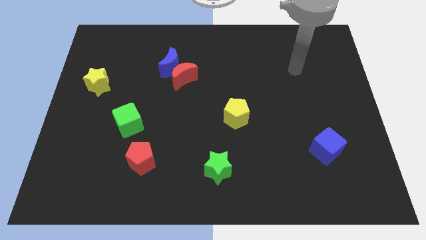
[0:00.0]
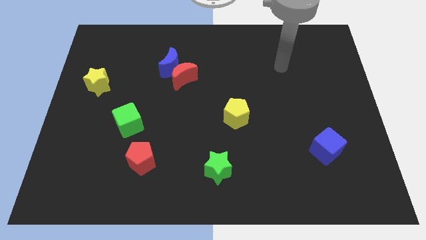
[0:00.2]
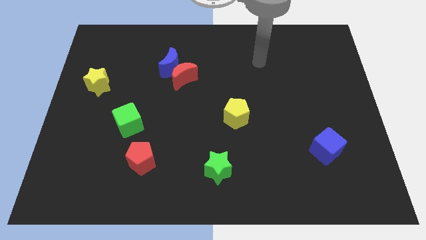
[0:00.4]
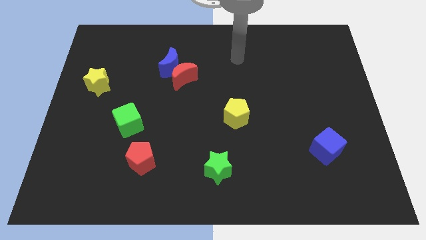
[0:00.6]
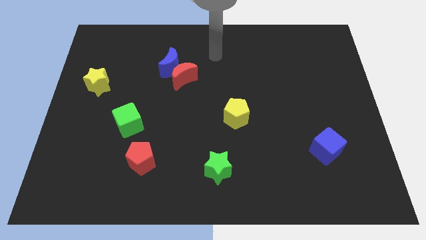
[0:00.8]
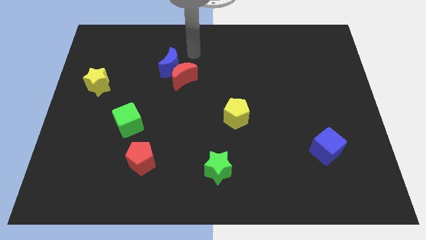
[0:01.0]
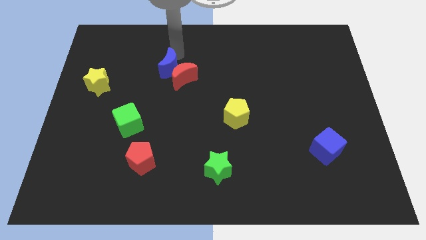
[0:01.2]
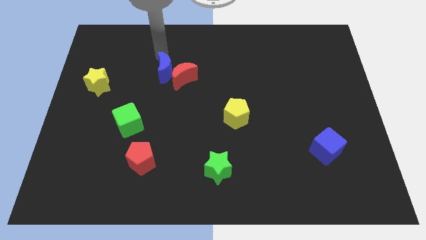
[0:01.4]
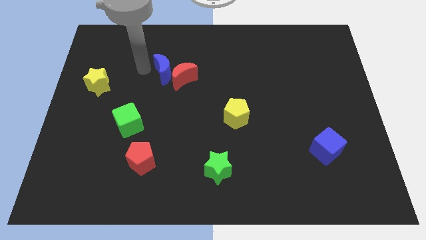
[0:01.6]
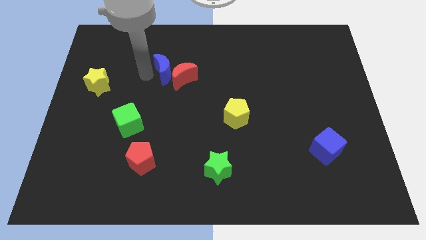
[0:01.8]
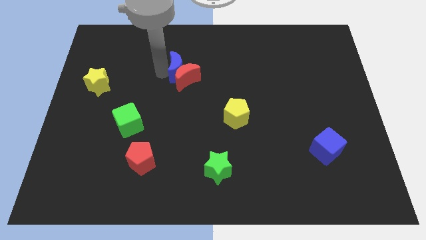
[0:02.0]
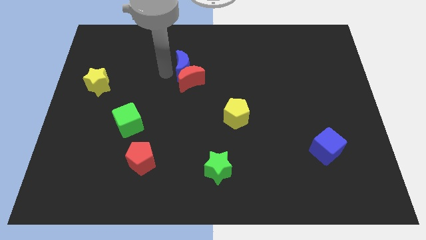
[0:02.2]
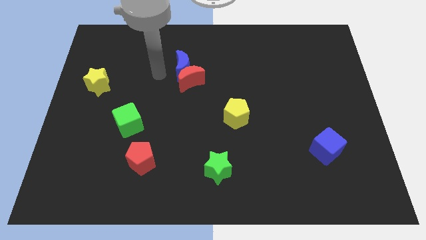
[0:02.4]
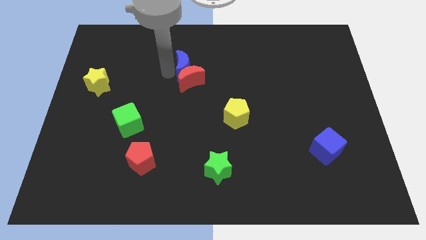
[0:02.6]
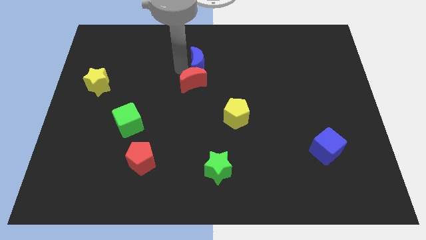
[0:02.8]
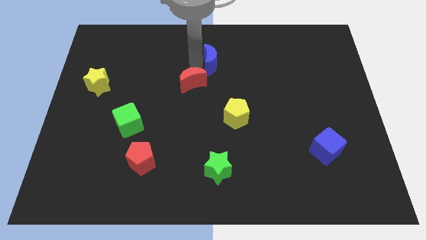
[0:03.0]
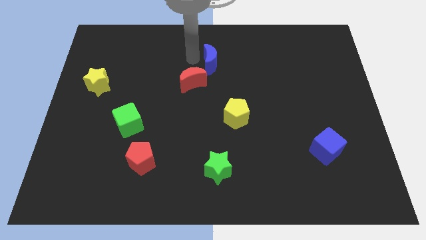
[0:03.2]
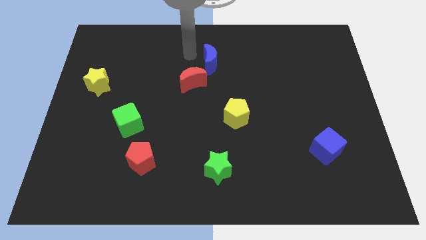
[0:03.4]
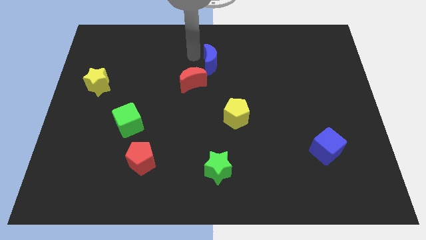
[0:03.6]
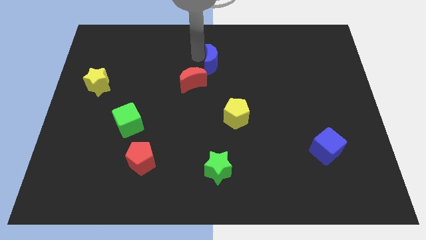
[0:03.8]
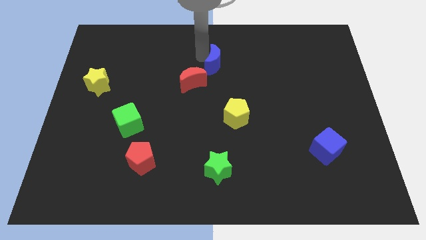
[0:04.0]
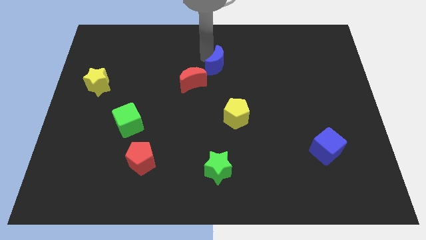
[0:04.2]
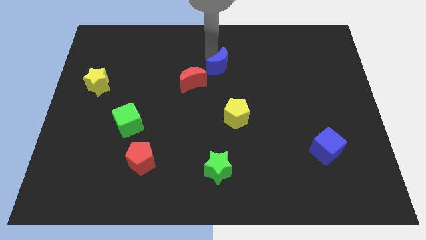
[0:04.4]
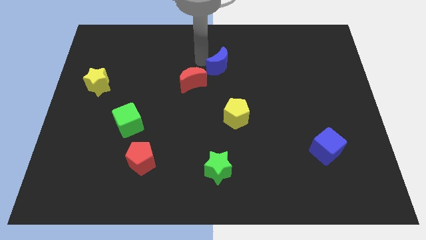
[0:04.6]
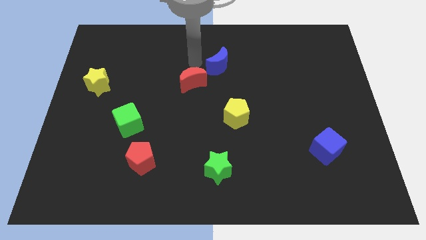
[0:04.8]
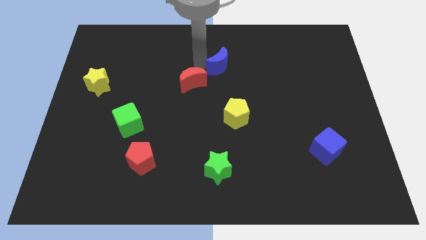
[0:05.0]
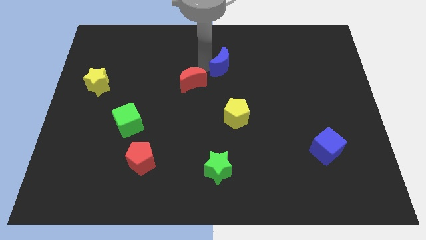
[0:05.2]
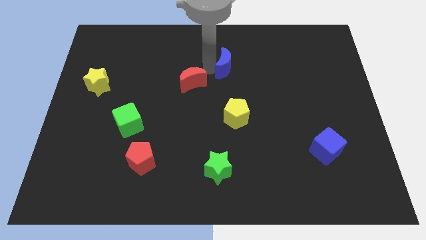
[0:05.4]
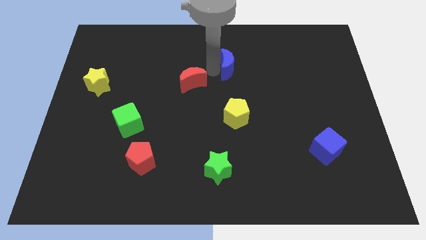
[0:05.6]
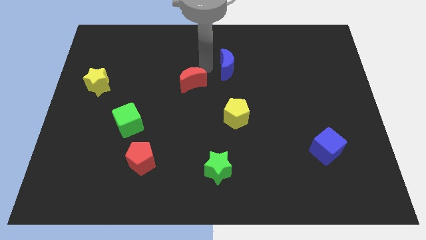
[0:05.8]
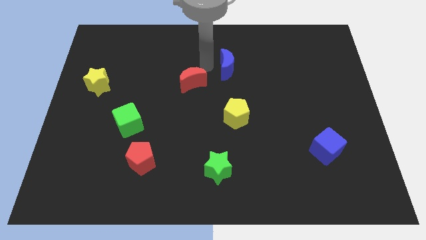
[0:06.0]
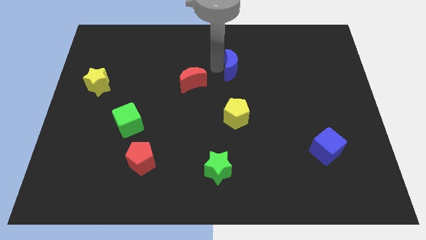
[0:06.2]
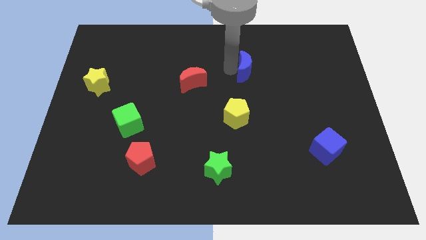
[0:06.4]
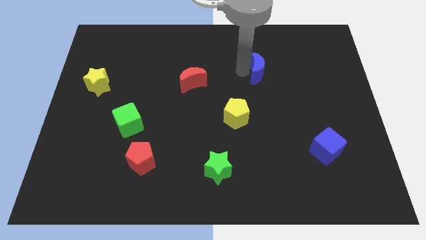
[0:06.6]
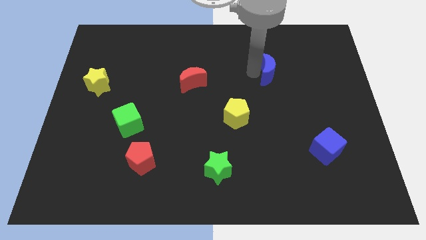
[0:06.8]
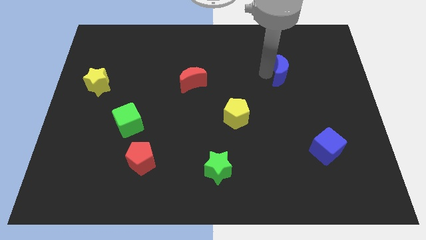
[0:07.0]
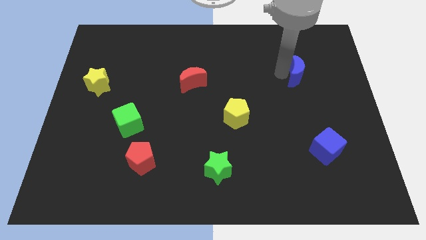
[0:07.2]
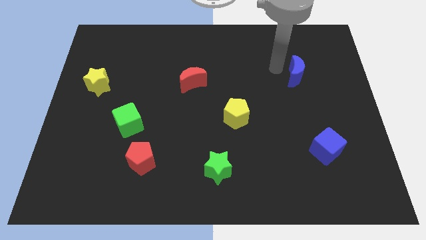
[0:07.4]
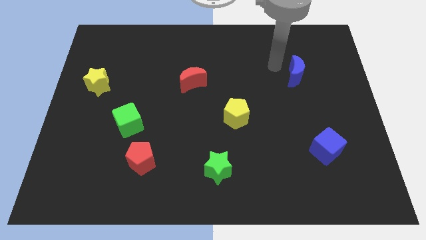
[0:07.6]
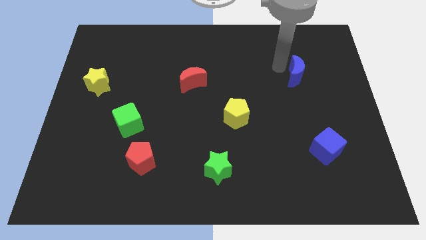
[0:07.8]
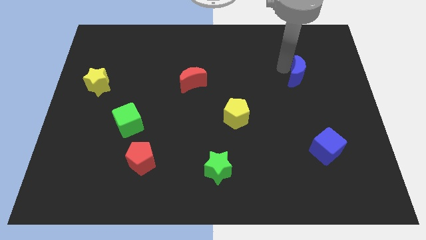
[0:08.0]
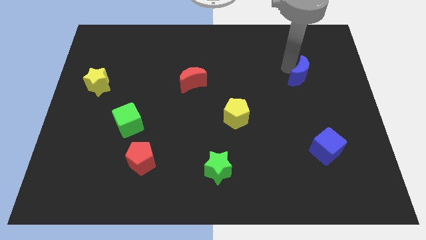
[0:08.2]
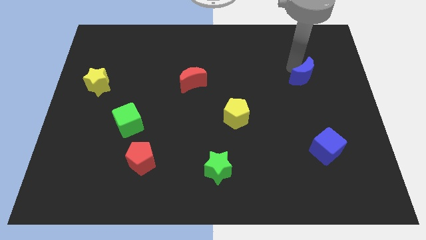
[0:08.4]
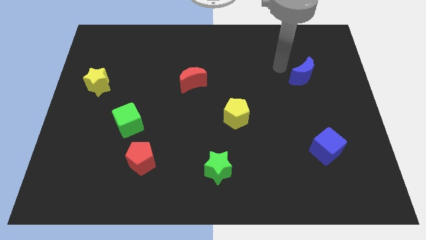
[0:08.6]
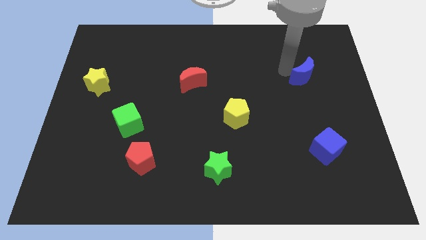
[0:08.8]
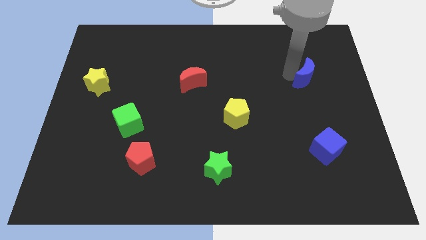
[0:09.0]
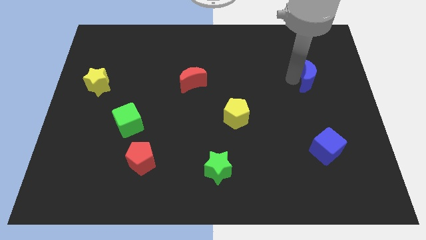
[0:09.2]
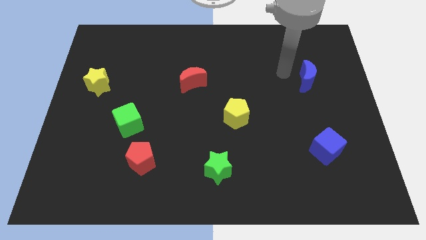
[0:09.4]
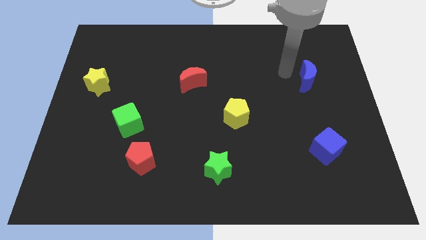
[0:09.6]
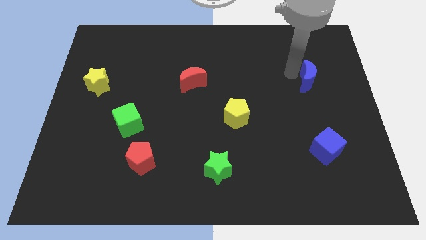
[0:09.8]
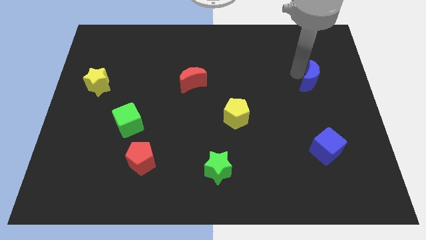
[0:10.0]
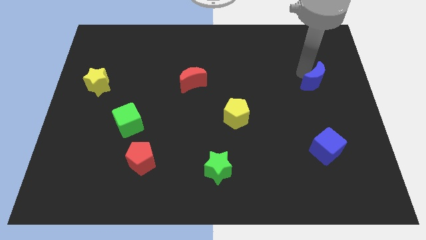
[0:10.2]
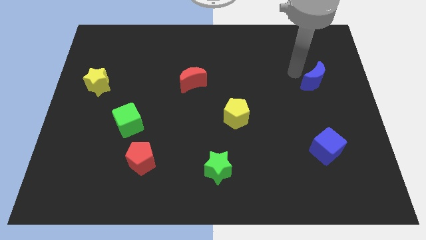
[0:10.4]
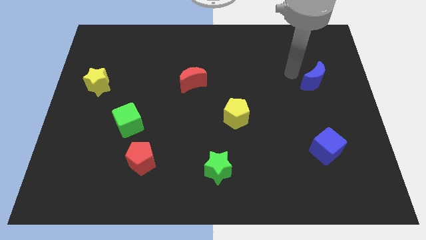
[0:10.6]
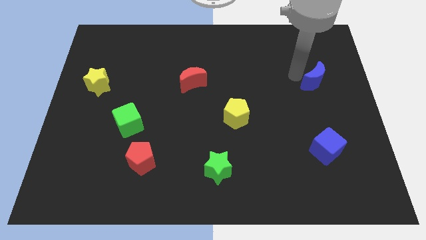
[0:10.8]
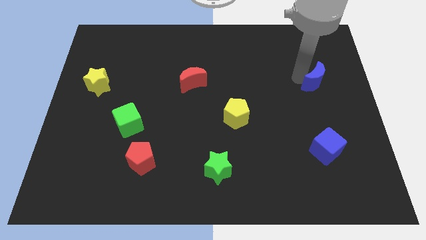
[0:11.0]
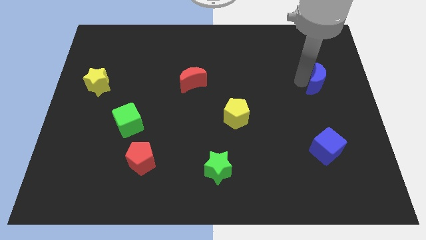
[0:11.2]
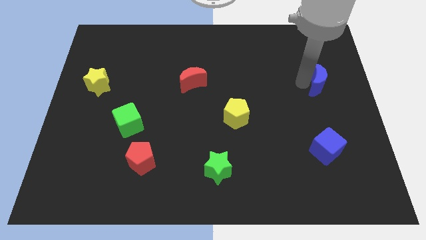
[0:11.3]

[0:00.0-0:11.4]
slide the blue moon to the right side of the board

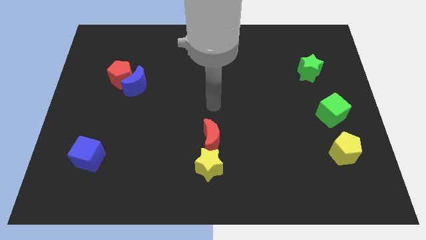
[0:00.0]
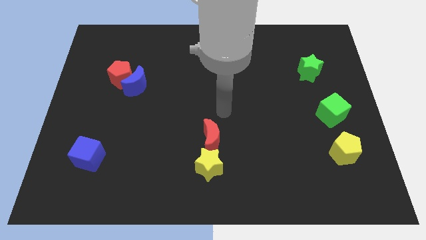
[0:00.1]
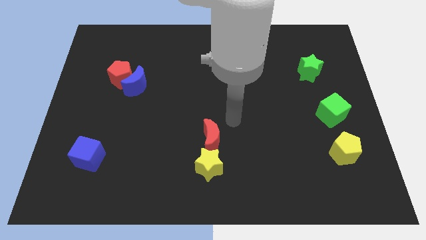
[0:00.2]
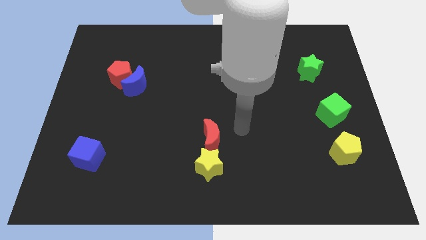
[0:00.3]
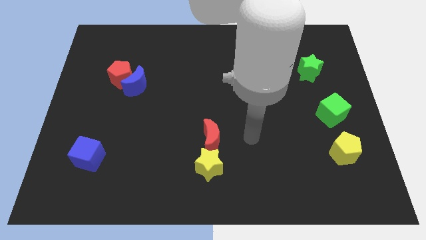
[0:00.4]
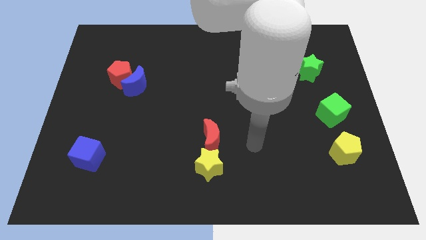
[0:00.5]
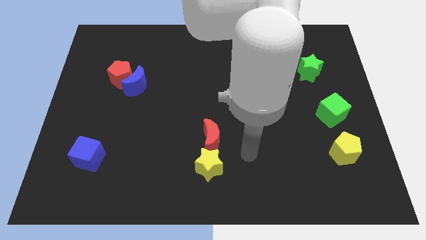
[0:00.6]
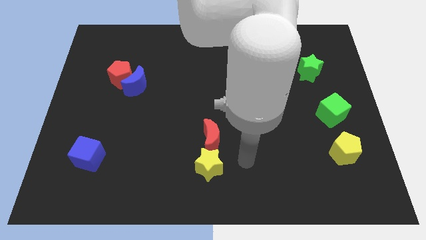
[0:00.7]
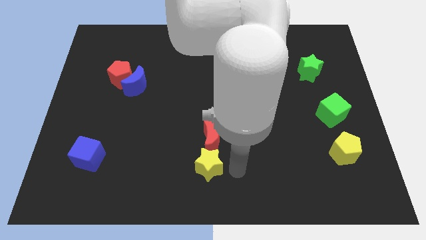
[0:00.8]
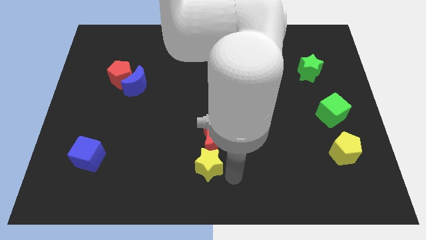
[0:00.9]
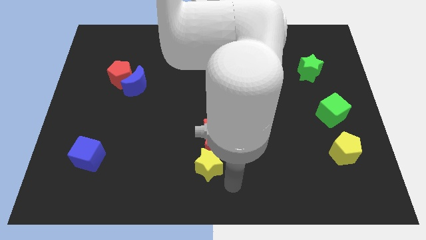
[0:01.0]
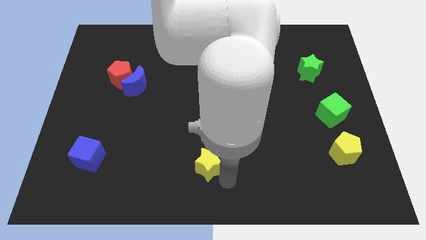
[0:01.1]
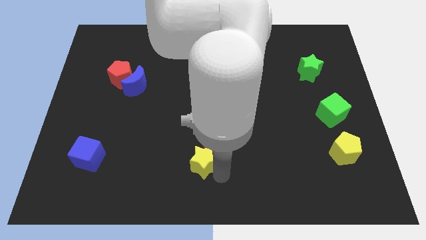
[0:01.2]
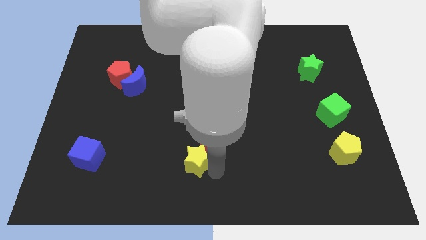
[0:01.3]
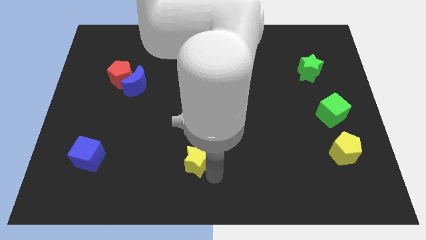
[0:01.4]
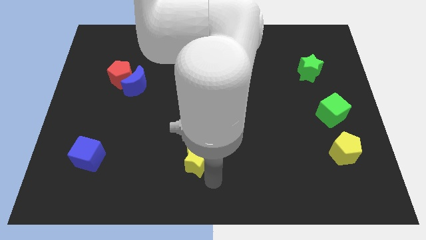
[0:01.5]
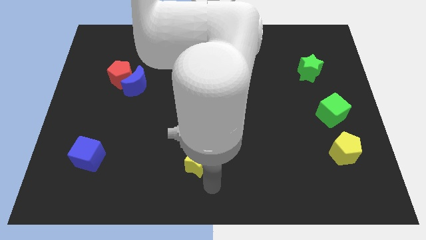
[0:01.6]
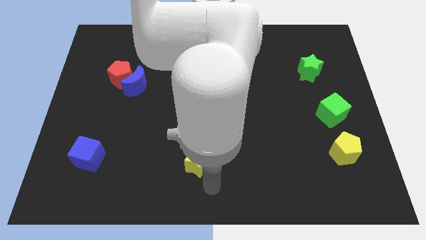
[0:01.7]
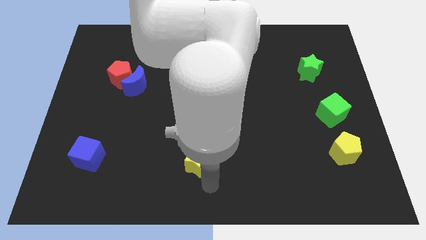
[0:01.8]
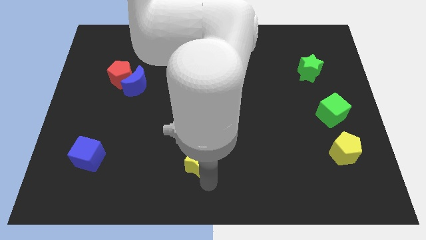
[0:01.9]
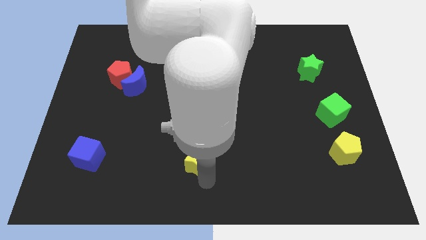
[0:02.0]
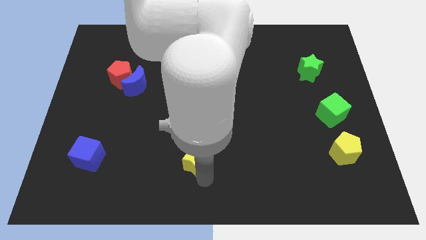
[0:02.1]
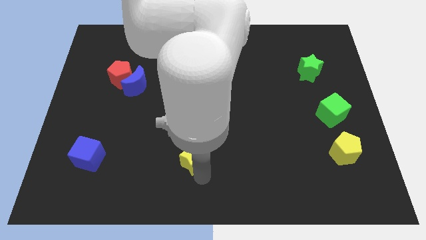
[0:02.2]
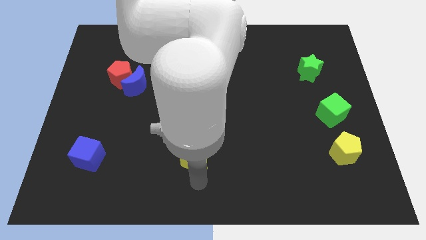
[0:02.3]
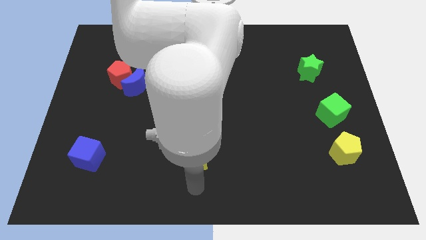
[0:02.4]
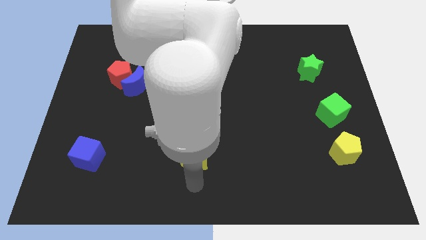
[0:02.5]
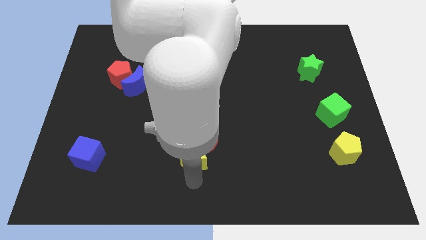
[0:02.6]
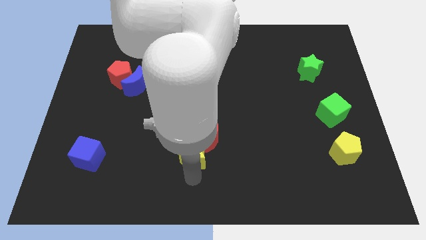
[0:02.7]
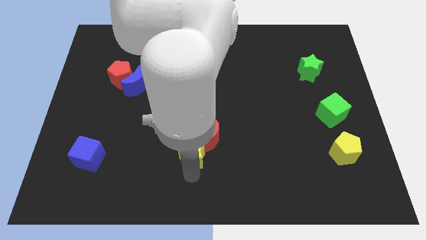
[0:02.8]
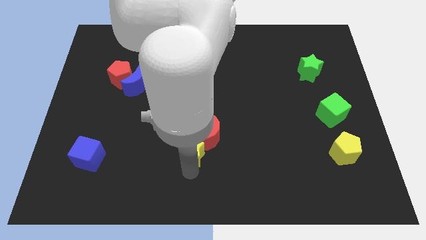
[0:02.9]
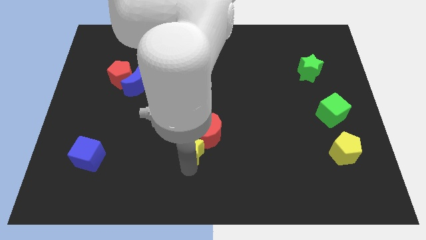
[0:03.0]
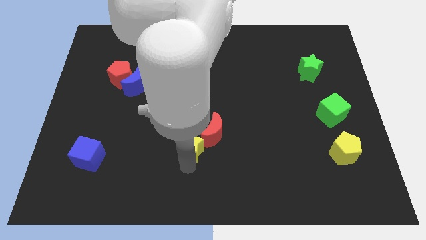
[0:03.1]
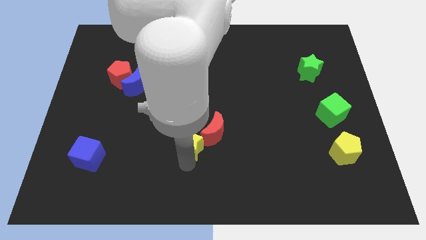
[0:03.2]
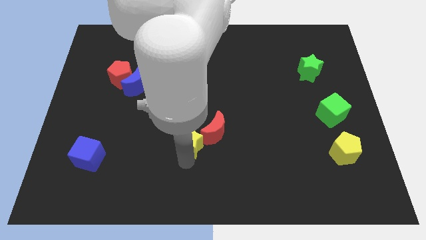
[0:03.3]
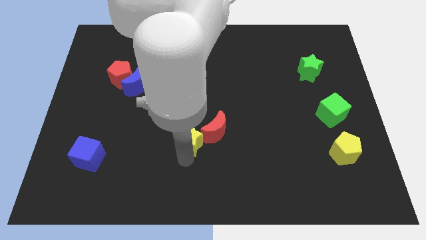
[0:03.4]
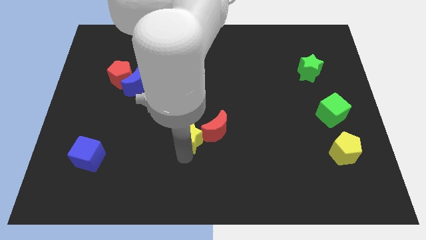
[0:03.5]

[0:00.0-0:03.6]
move the yellow star to the center
